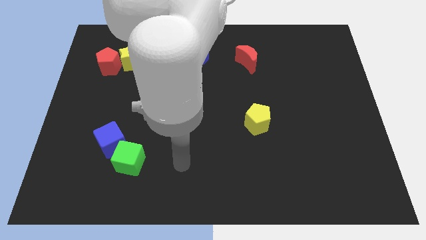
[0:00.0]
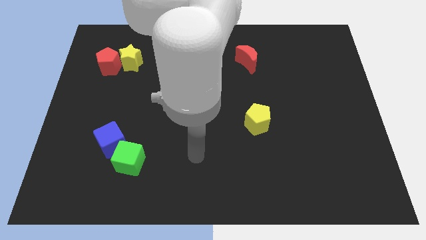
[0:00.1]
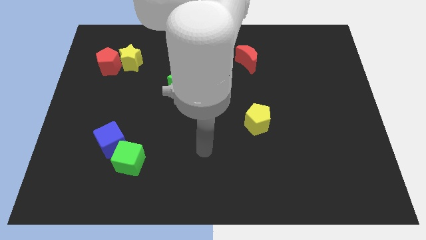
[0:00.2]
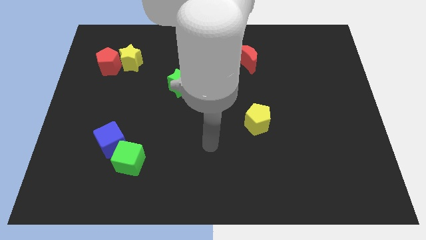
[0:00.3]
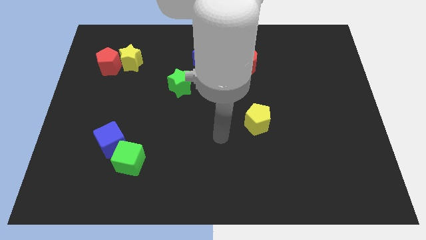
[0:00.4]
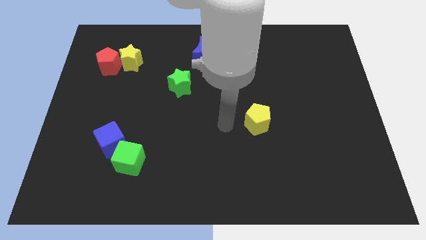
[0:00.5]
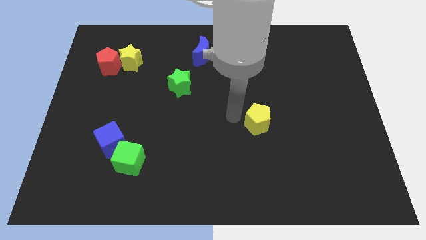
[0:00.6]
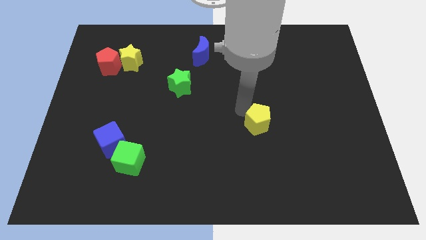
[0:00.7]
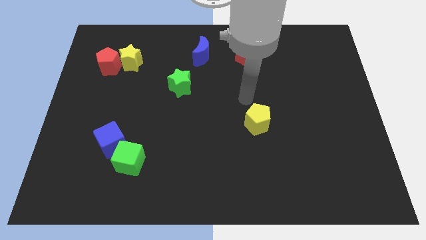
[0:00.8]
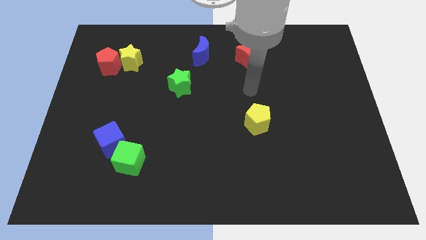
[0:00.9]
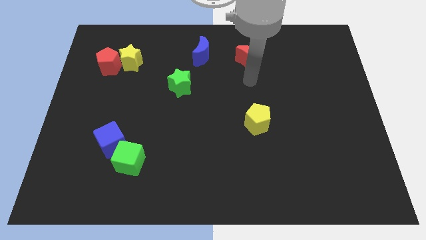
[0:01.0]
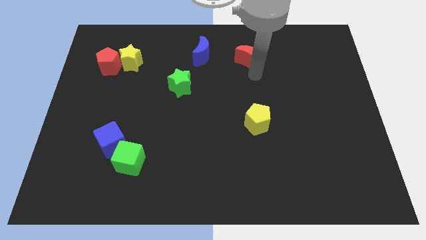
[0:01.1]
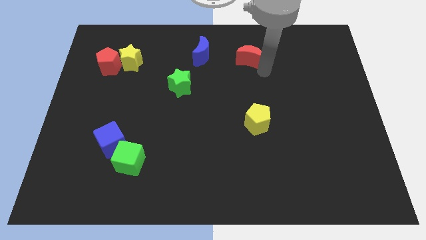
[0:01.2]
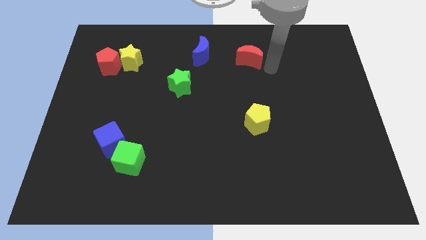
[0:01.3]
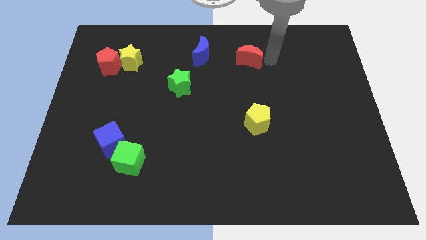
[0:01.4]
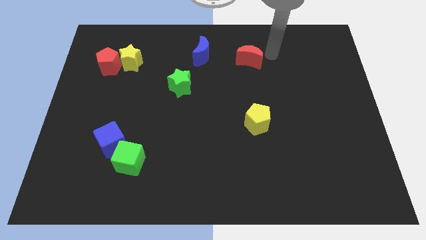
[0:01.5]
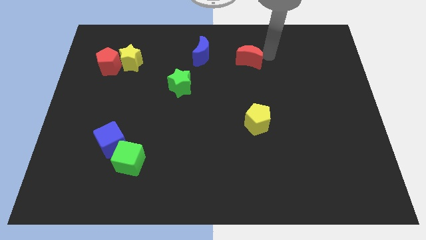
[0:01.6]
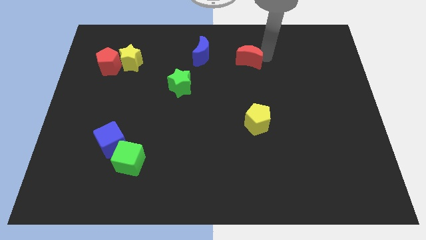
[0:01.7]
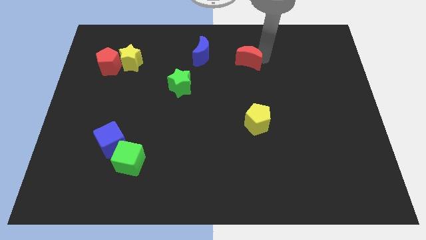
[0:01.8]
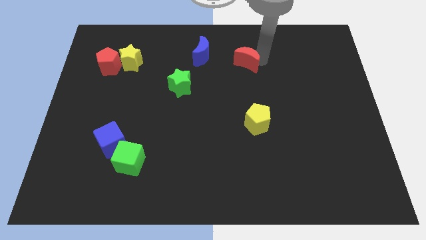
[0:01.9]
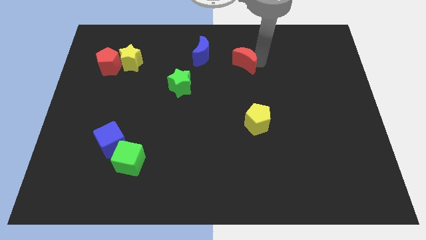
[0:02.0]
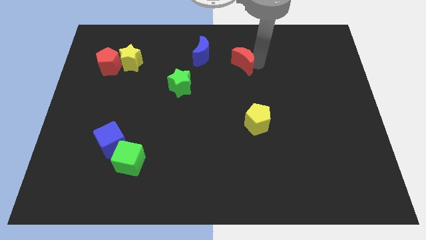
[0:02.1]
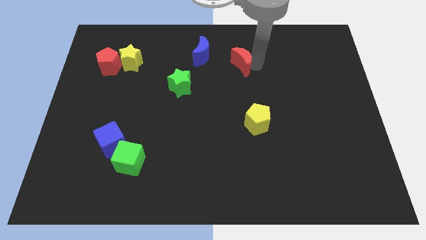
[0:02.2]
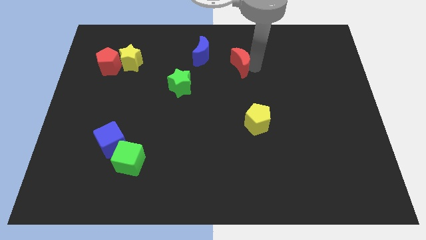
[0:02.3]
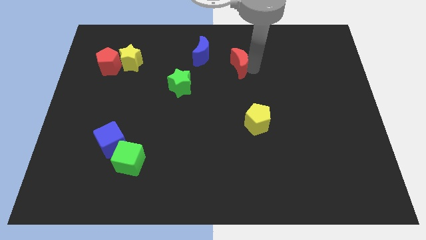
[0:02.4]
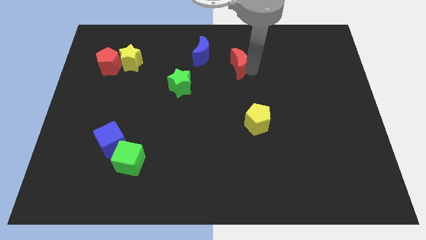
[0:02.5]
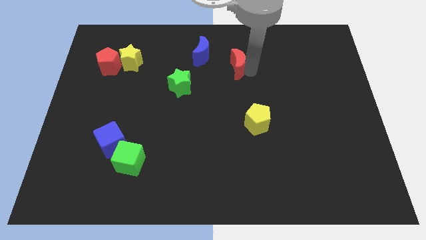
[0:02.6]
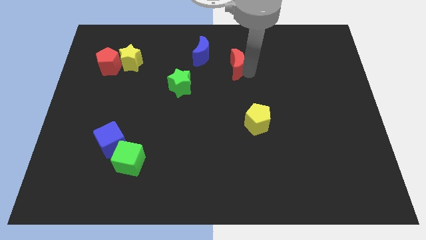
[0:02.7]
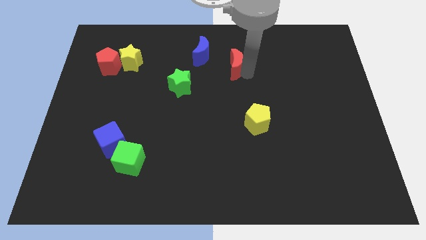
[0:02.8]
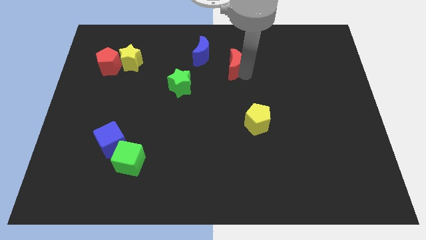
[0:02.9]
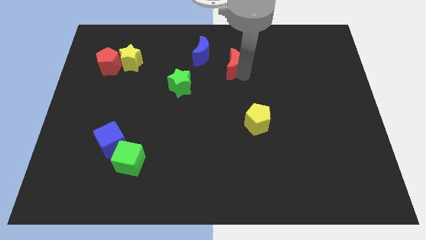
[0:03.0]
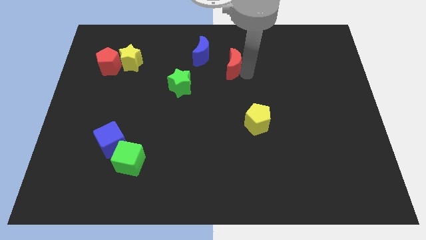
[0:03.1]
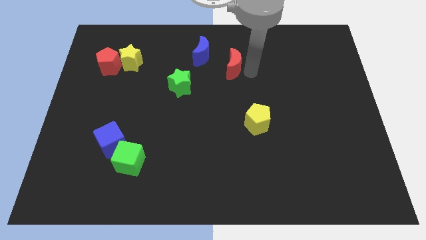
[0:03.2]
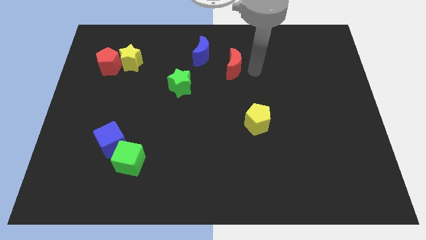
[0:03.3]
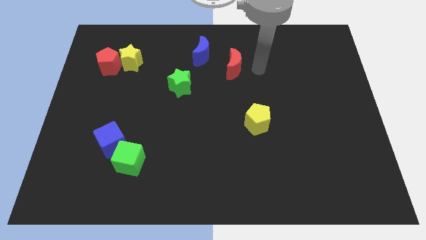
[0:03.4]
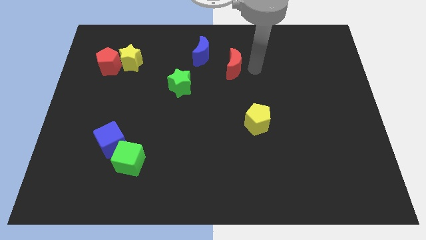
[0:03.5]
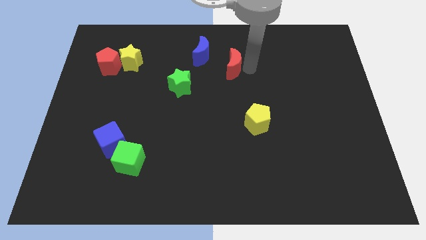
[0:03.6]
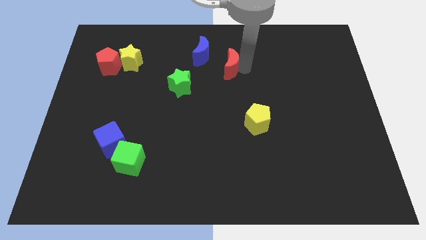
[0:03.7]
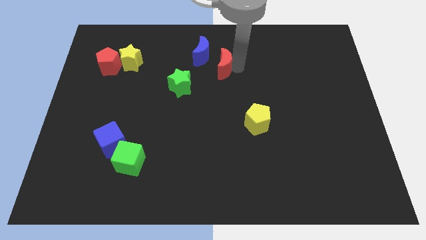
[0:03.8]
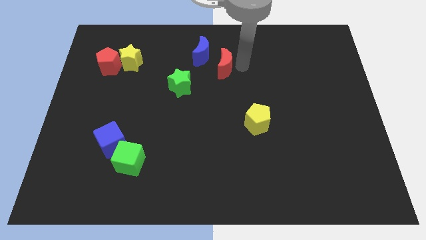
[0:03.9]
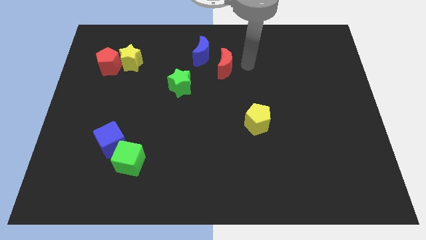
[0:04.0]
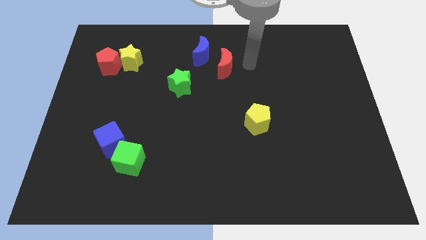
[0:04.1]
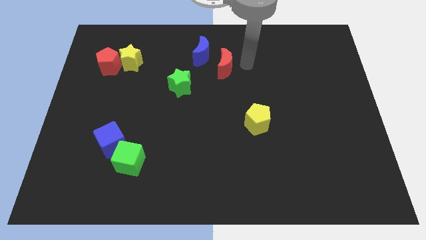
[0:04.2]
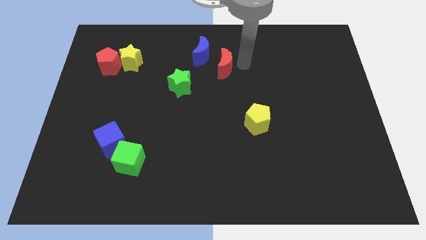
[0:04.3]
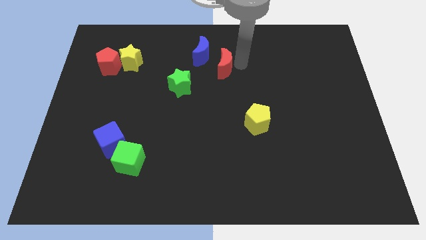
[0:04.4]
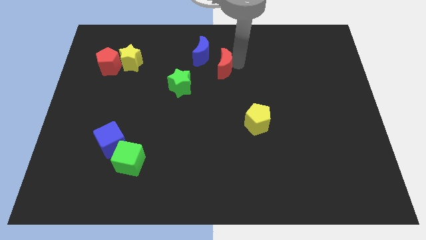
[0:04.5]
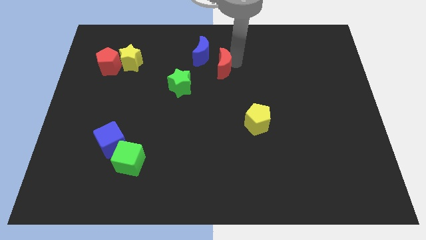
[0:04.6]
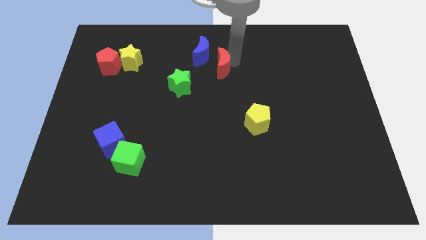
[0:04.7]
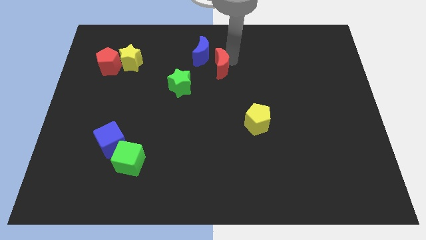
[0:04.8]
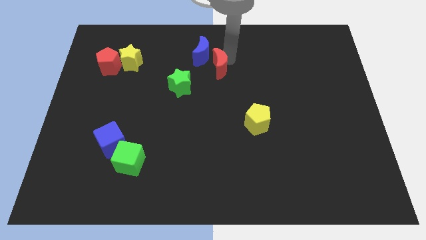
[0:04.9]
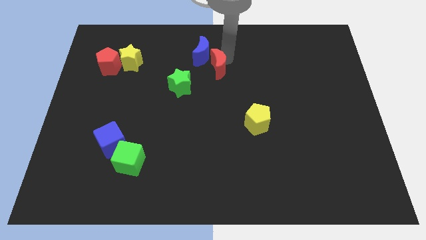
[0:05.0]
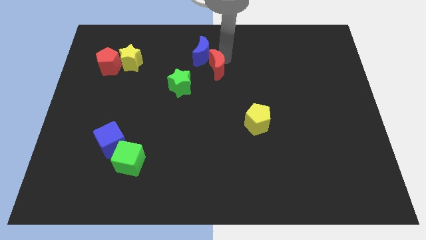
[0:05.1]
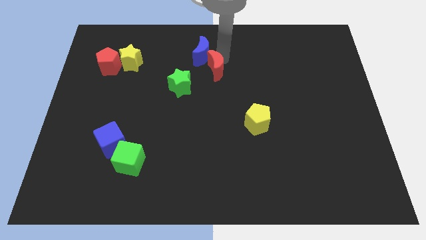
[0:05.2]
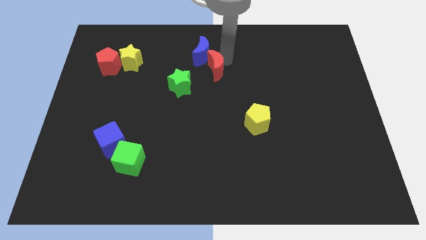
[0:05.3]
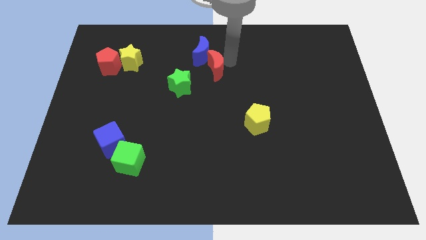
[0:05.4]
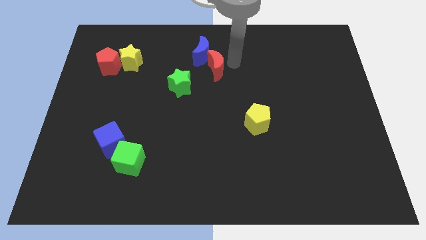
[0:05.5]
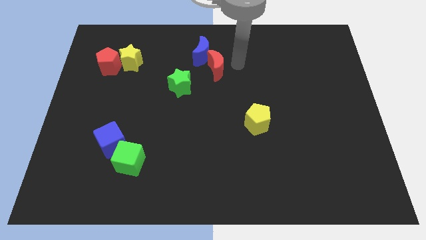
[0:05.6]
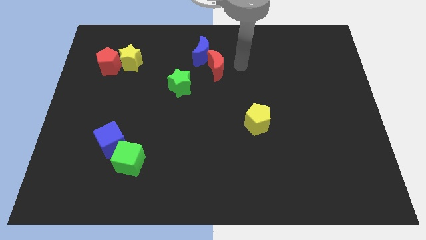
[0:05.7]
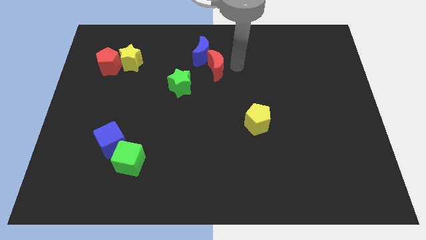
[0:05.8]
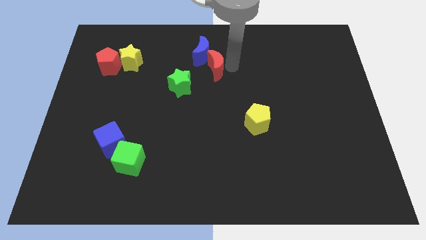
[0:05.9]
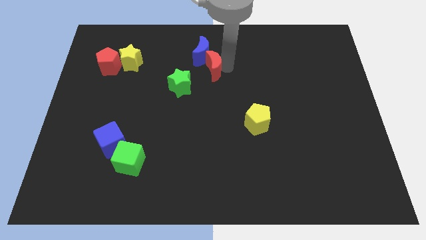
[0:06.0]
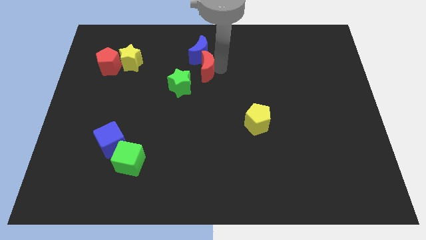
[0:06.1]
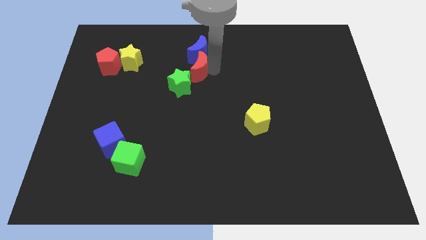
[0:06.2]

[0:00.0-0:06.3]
move the red moon to the bottom left of the blue moon
